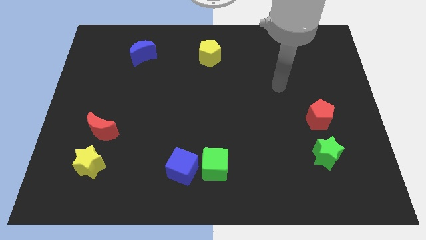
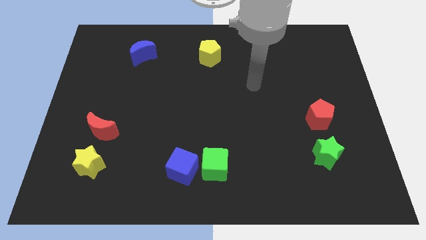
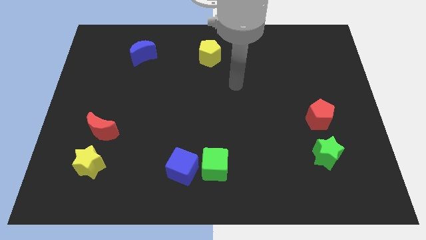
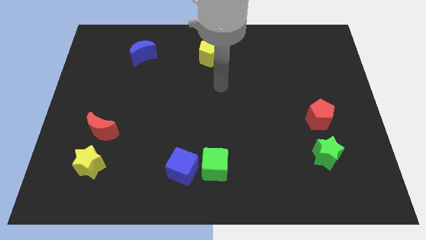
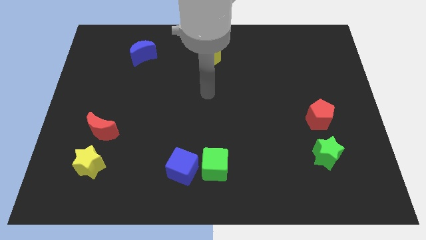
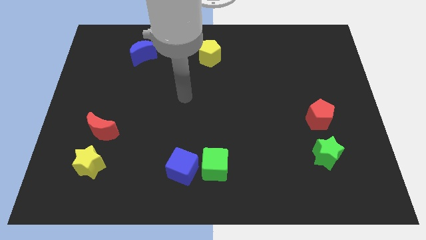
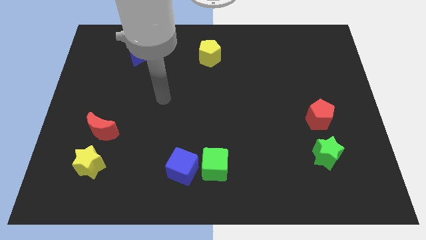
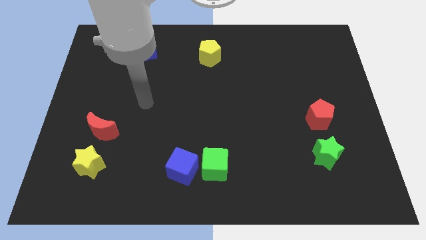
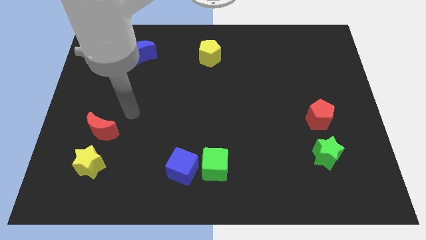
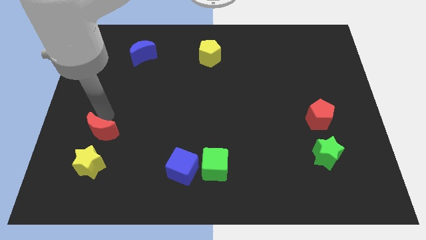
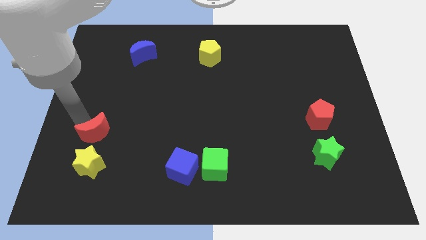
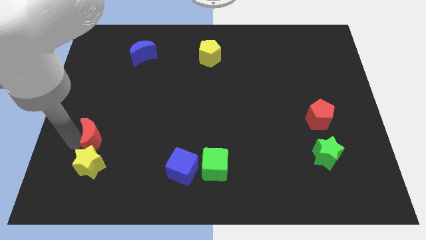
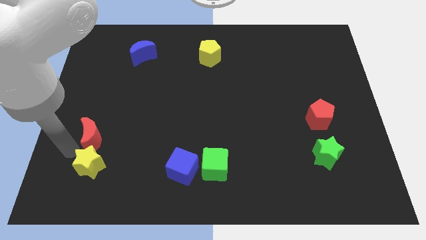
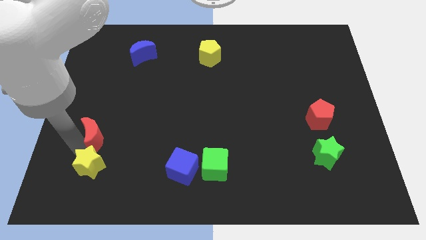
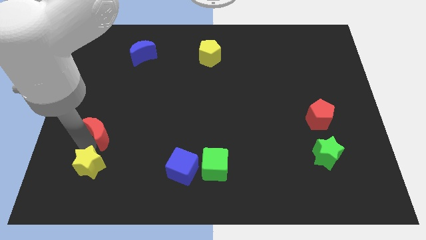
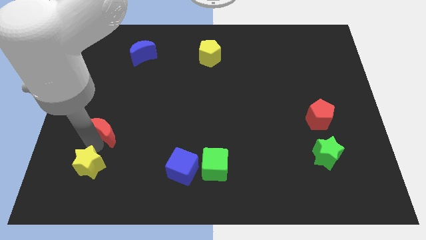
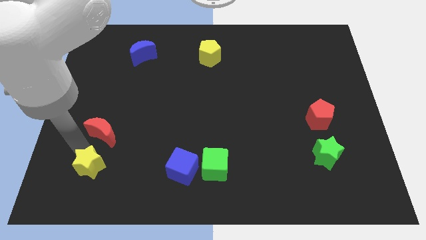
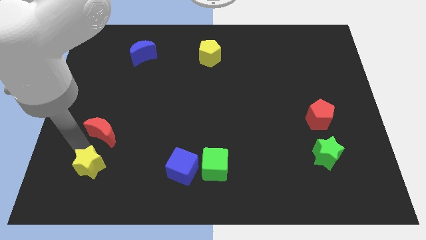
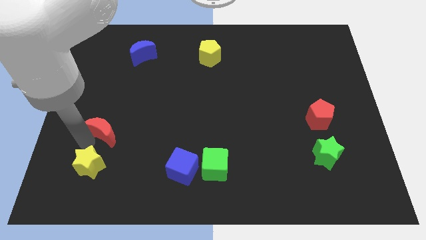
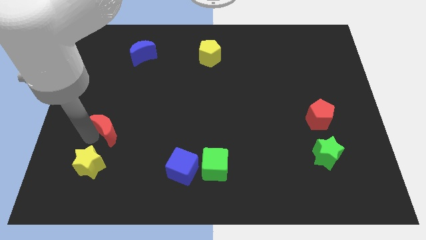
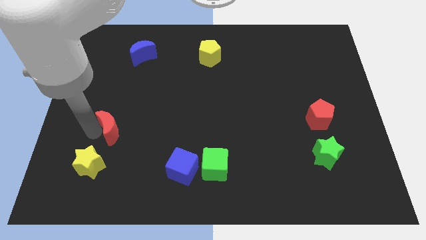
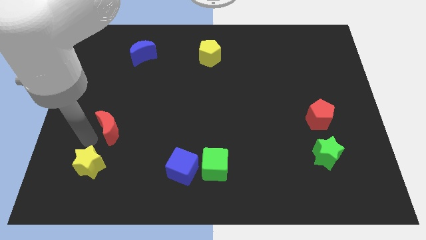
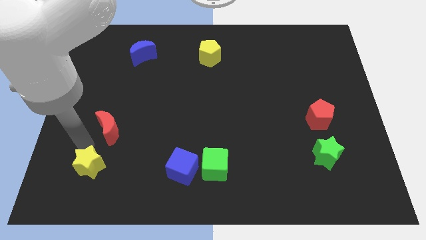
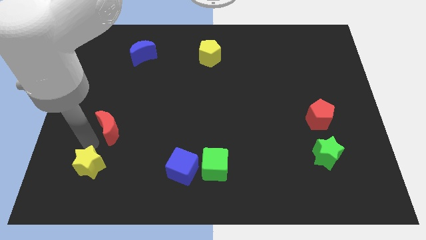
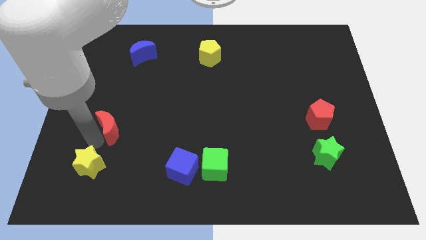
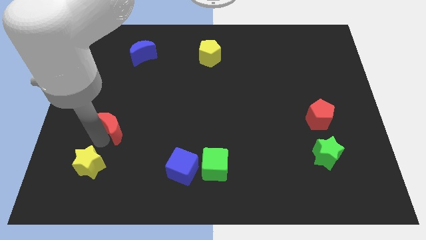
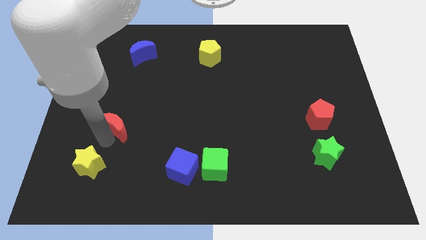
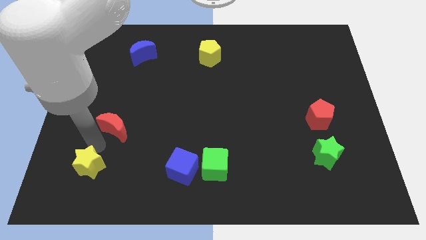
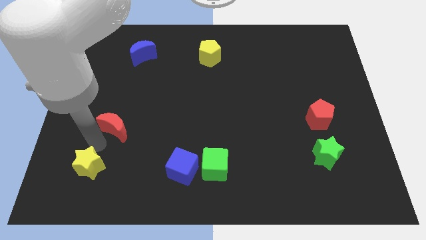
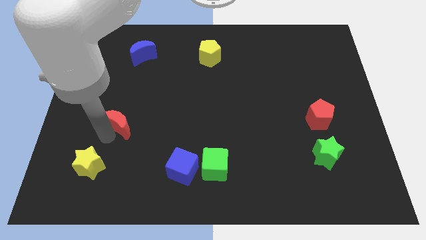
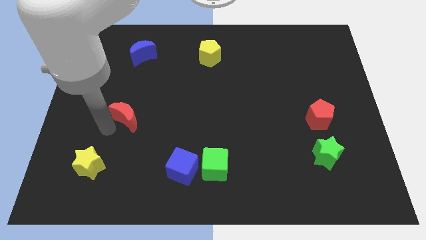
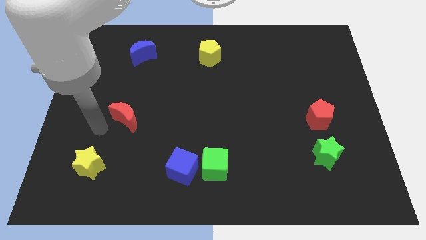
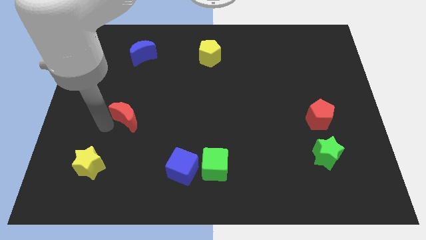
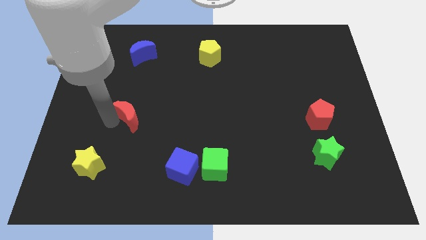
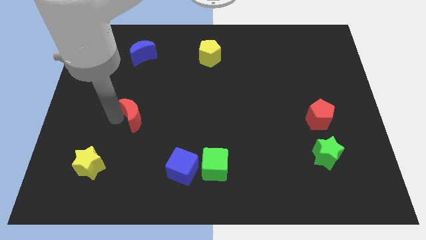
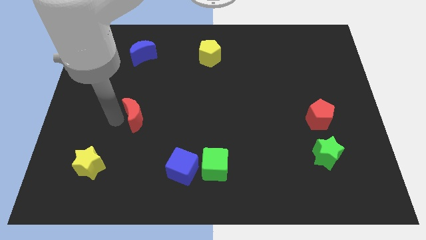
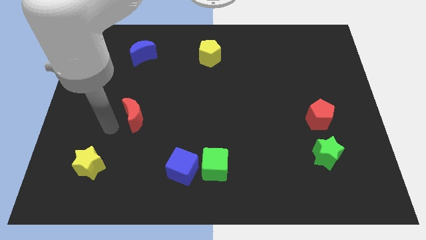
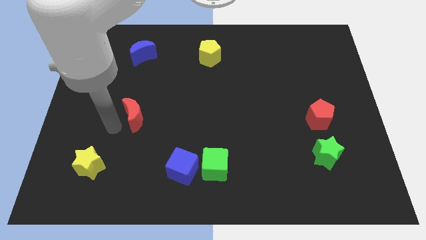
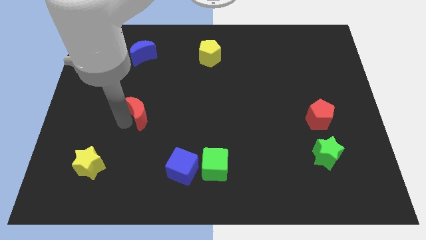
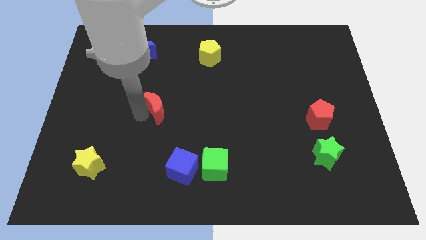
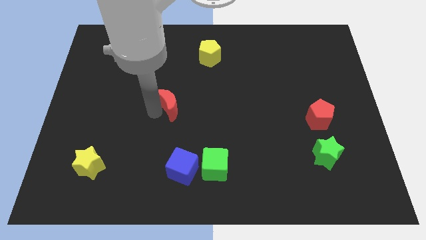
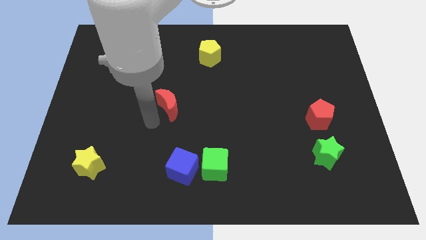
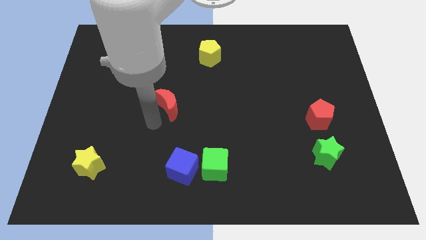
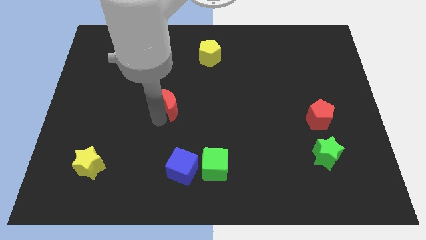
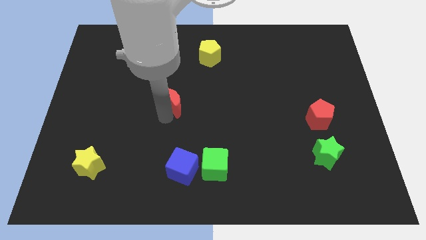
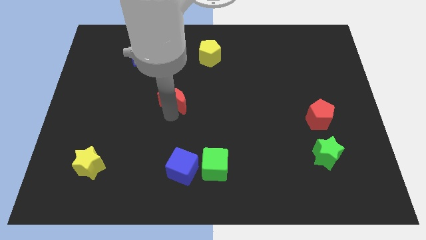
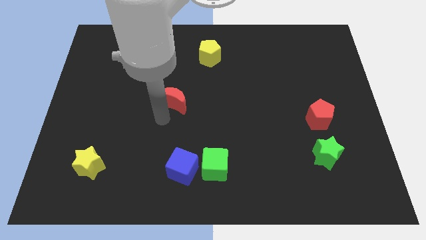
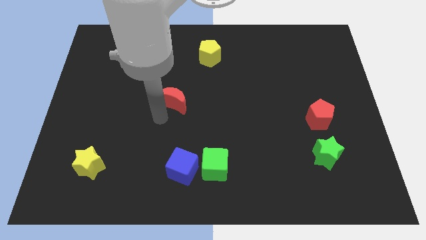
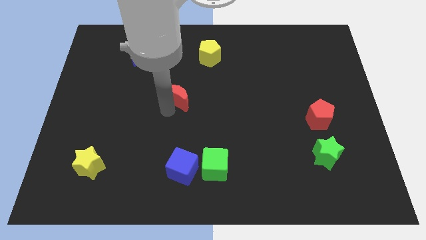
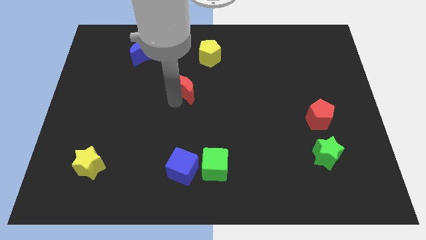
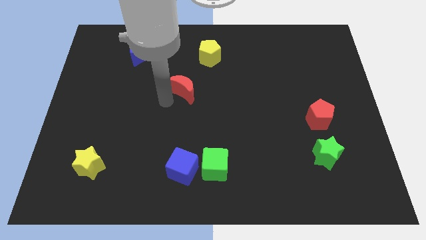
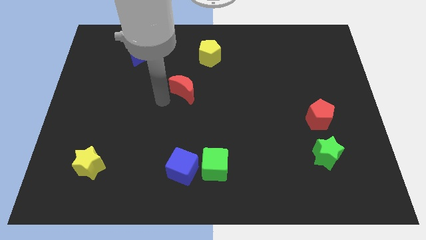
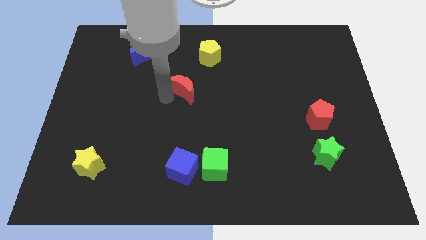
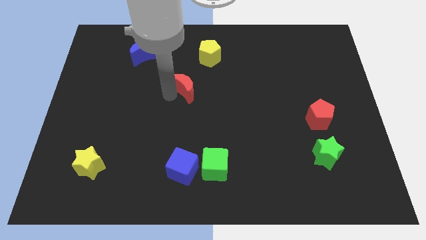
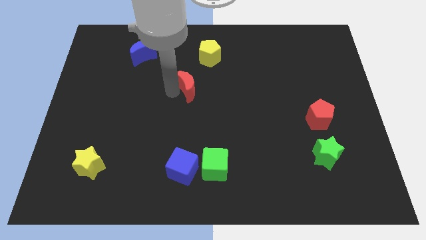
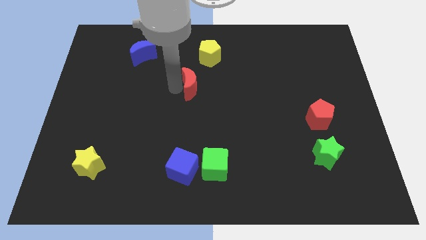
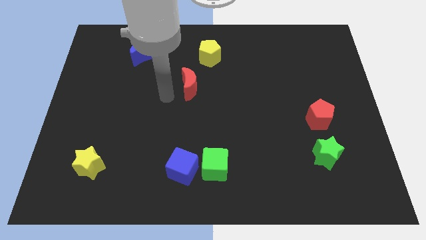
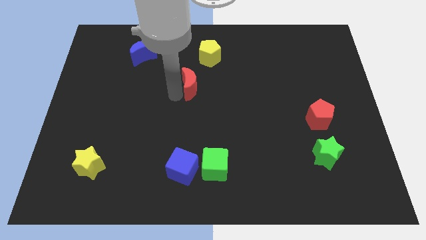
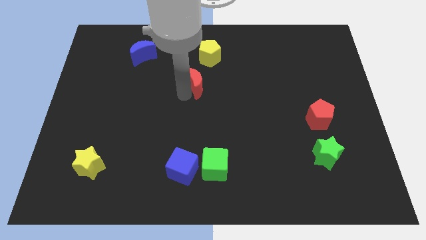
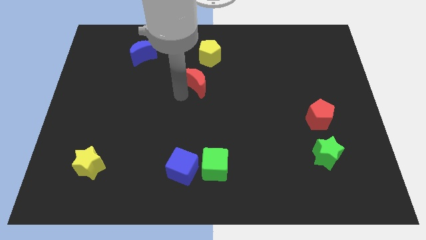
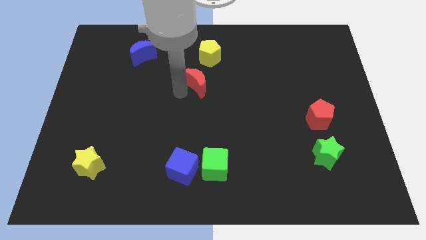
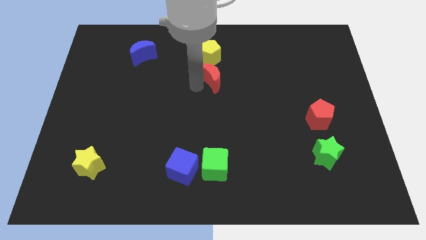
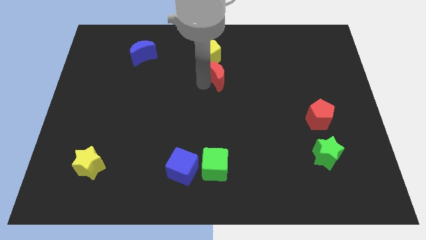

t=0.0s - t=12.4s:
slide the red moon to the bottom right side of the yellow pentagon
